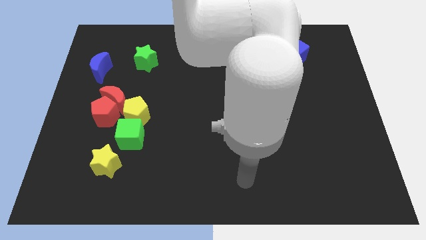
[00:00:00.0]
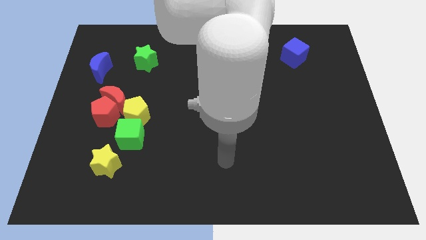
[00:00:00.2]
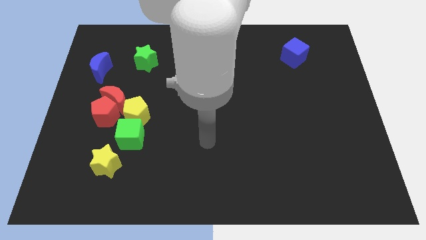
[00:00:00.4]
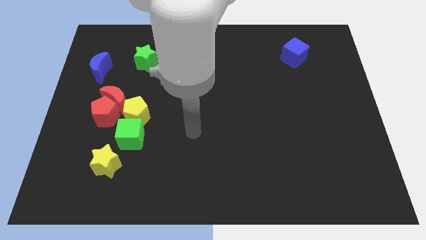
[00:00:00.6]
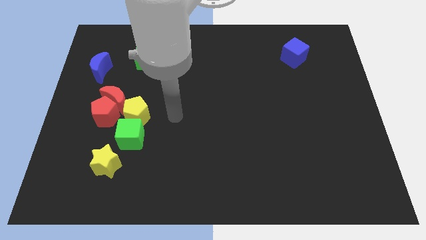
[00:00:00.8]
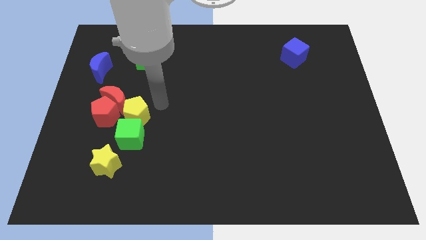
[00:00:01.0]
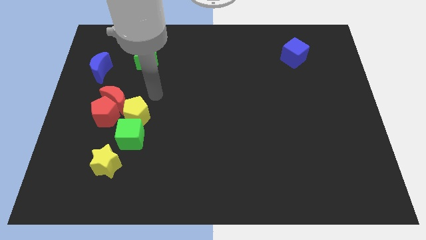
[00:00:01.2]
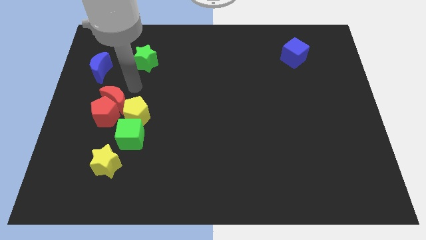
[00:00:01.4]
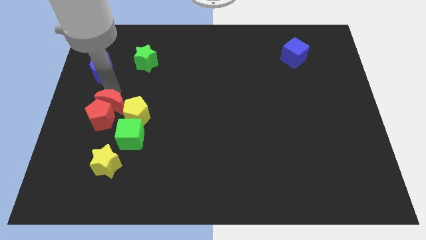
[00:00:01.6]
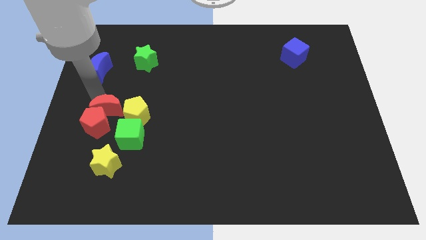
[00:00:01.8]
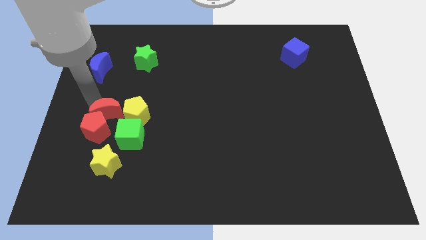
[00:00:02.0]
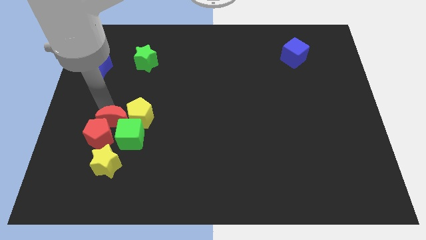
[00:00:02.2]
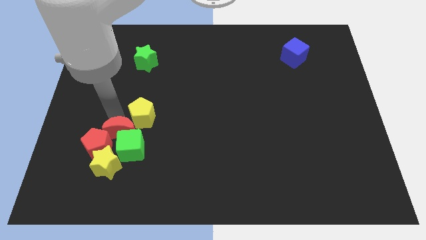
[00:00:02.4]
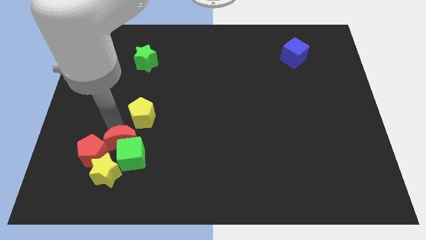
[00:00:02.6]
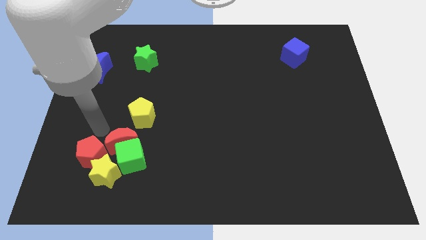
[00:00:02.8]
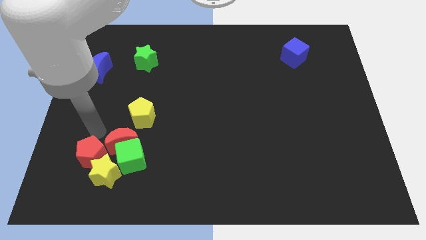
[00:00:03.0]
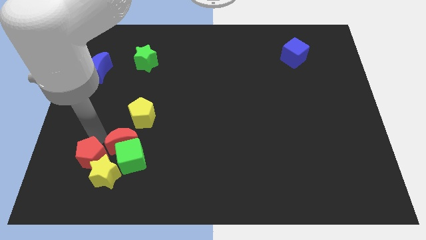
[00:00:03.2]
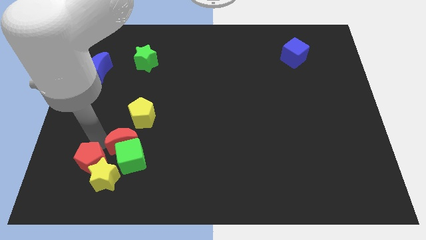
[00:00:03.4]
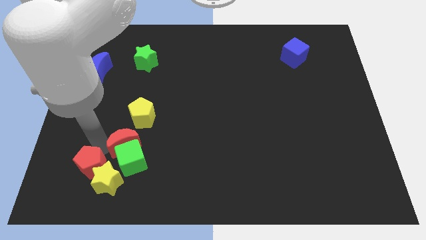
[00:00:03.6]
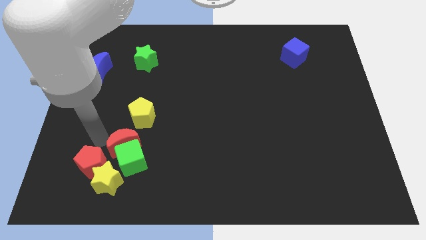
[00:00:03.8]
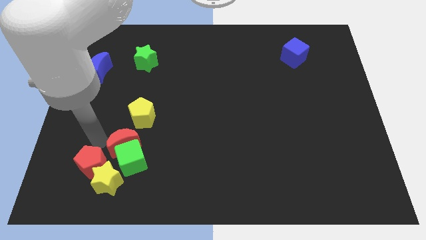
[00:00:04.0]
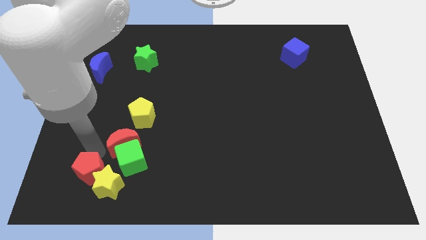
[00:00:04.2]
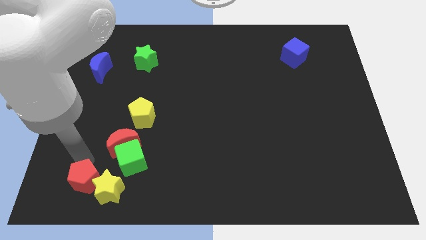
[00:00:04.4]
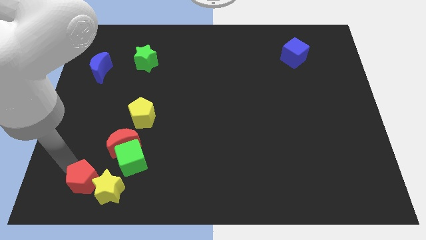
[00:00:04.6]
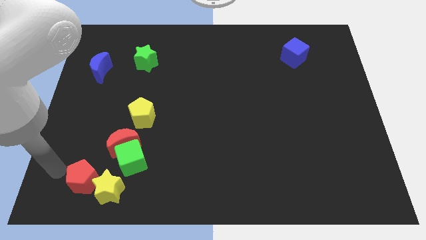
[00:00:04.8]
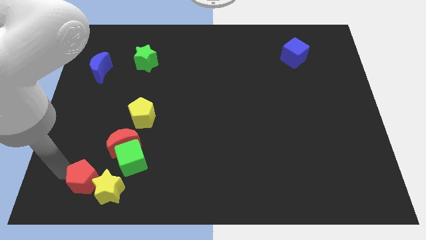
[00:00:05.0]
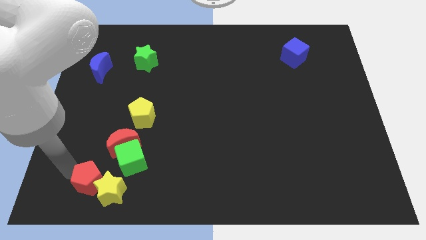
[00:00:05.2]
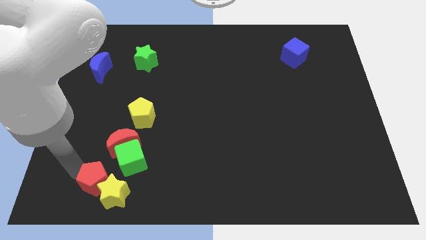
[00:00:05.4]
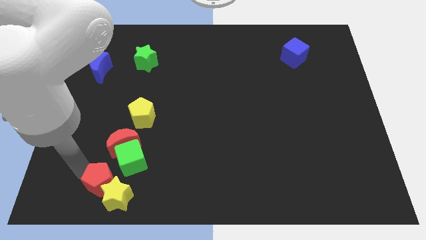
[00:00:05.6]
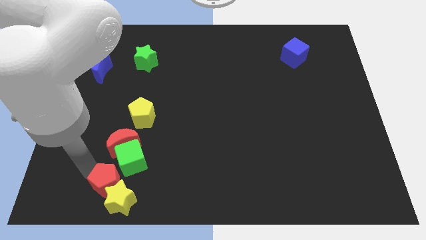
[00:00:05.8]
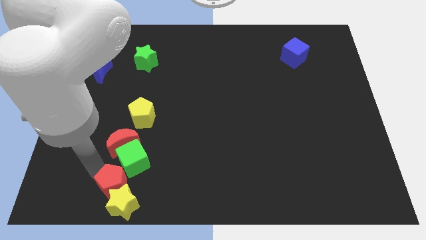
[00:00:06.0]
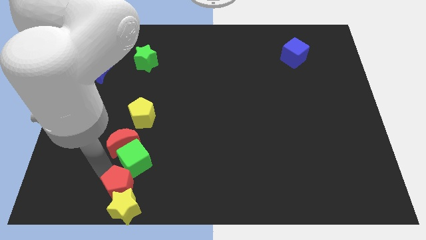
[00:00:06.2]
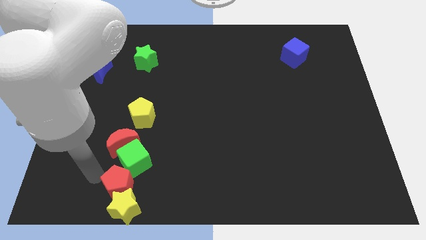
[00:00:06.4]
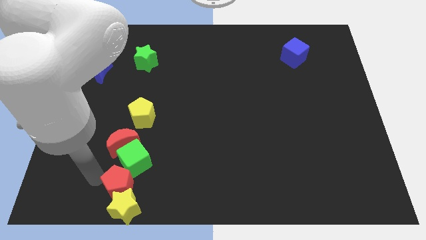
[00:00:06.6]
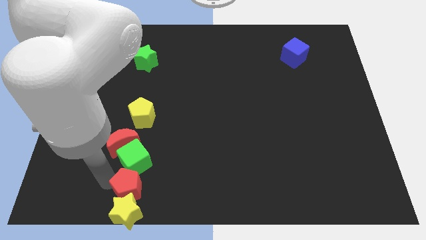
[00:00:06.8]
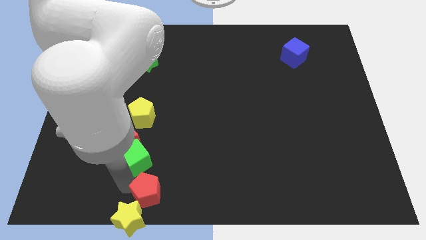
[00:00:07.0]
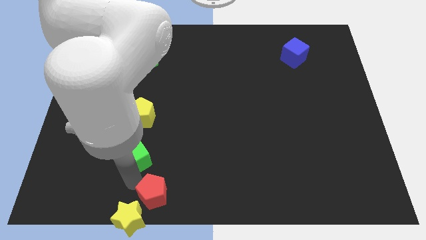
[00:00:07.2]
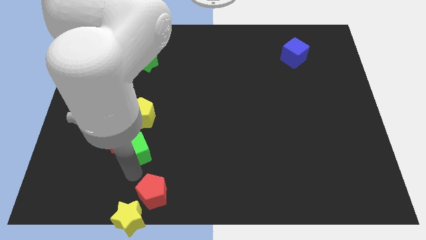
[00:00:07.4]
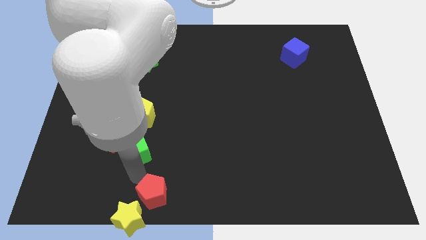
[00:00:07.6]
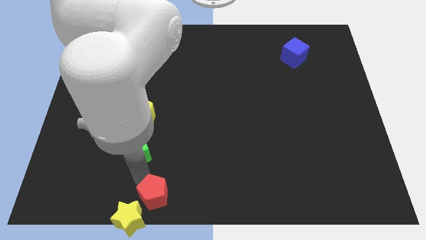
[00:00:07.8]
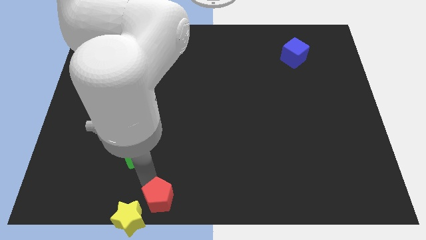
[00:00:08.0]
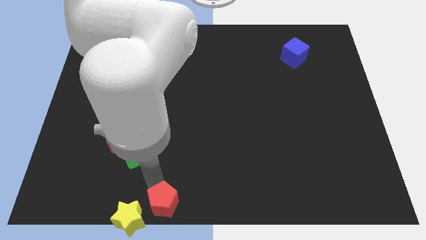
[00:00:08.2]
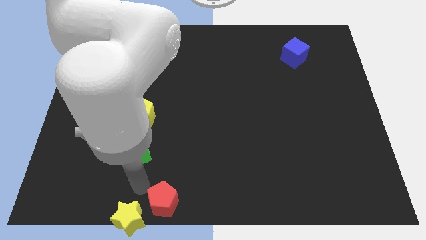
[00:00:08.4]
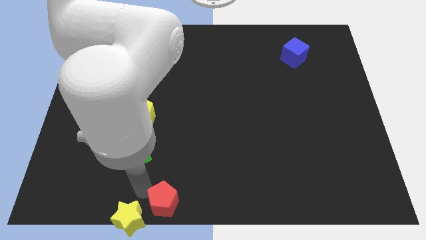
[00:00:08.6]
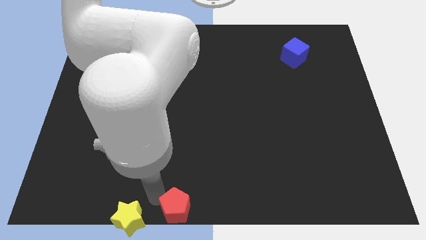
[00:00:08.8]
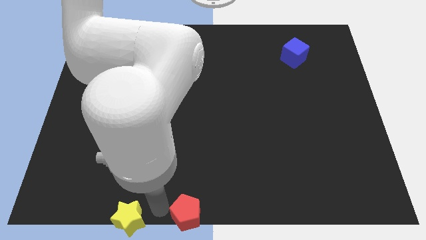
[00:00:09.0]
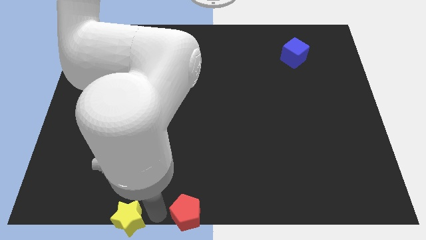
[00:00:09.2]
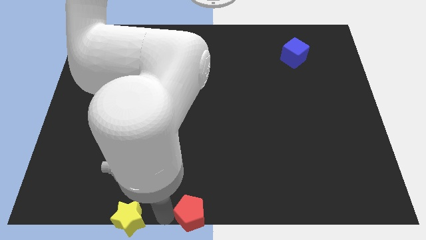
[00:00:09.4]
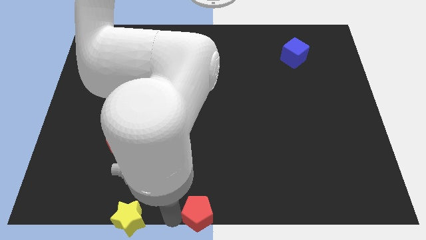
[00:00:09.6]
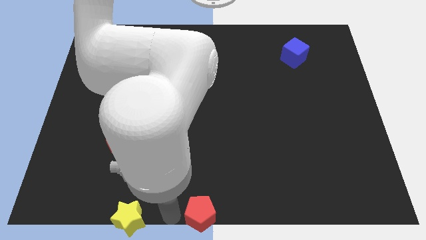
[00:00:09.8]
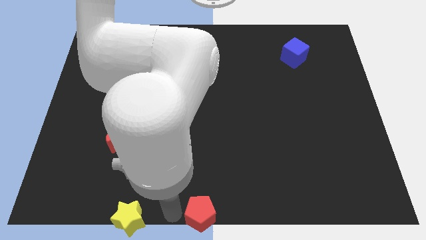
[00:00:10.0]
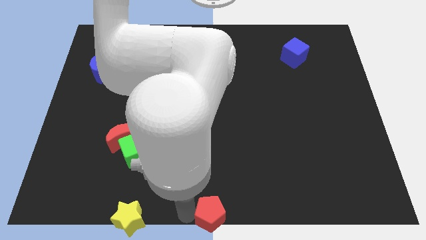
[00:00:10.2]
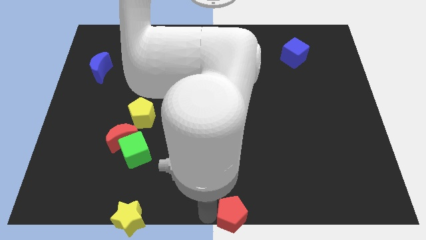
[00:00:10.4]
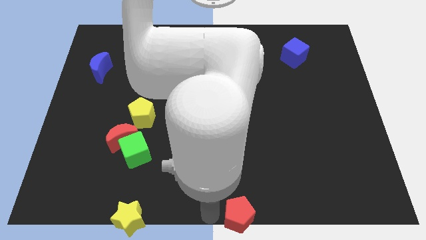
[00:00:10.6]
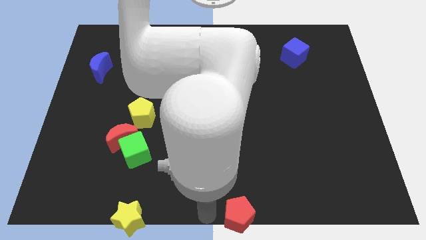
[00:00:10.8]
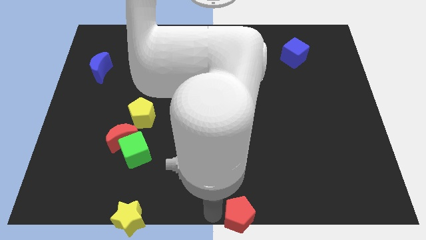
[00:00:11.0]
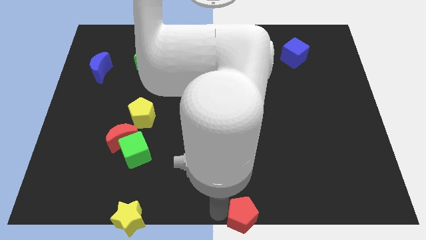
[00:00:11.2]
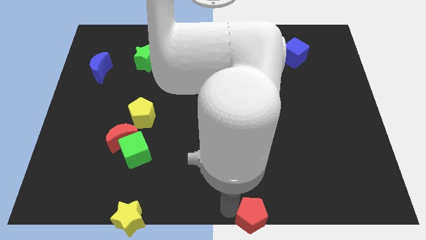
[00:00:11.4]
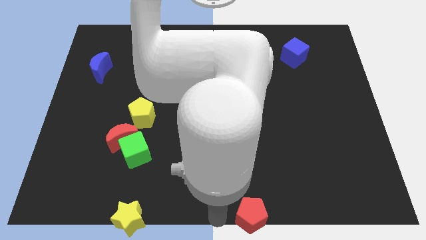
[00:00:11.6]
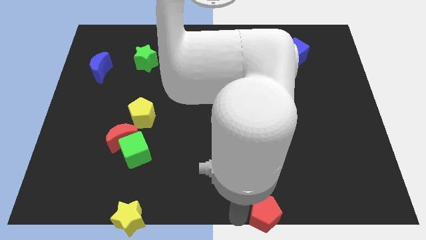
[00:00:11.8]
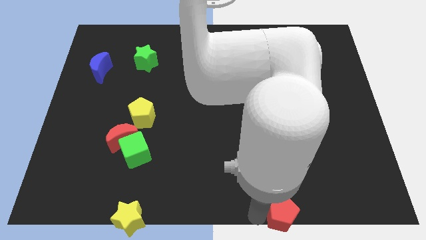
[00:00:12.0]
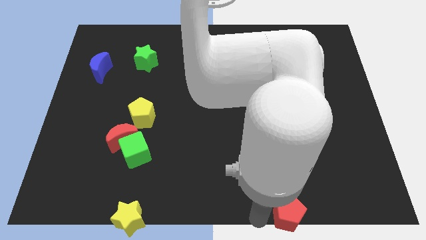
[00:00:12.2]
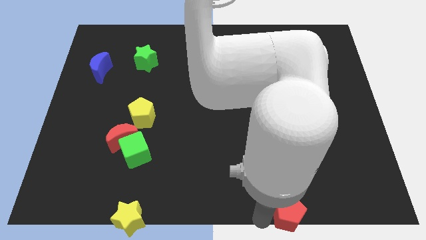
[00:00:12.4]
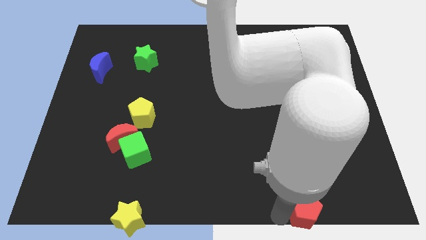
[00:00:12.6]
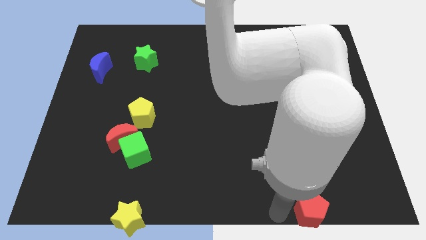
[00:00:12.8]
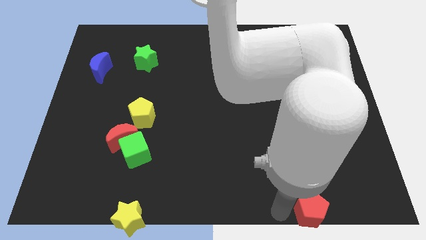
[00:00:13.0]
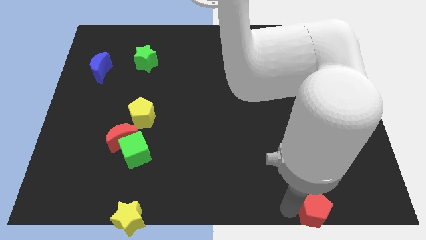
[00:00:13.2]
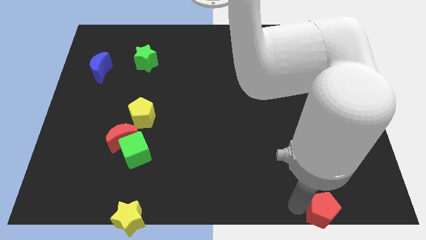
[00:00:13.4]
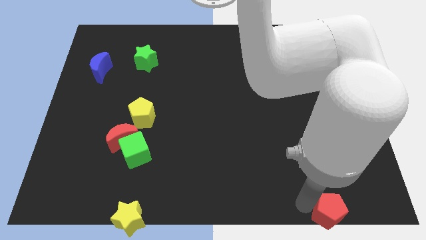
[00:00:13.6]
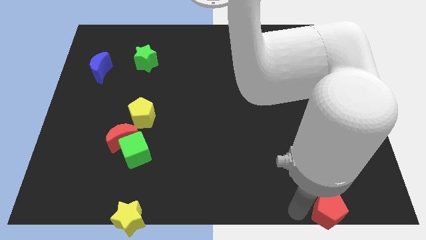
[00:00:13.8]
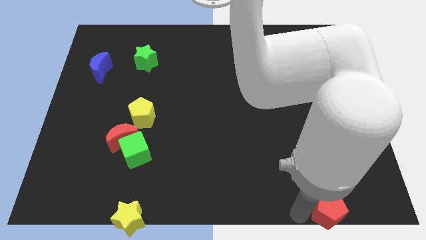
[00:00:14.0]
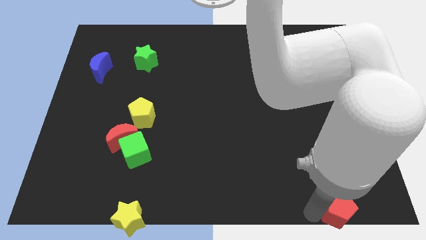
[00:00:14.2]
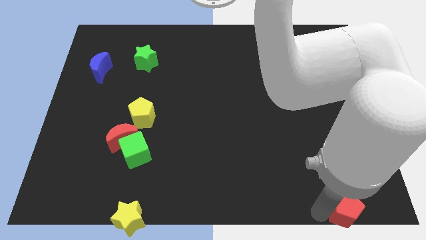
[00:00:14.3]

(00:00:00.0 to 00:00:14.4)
put the red pentagon to the bottom right of the board
